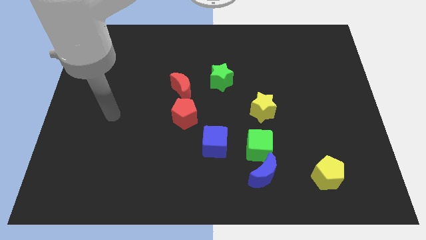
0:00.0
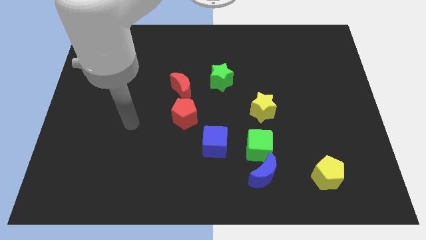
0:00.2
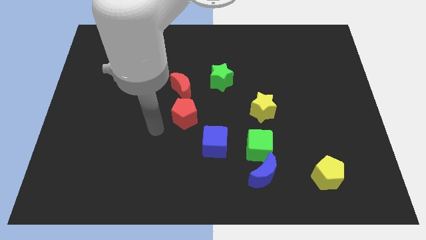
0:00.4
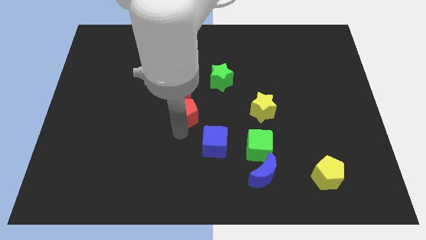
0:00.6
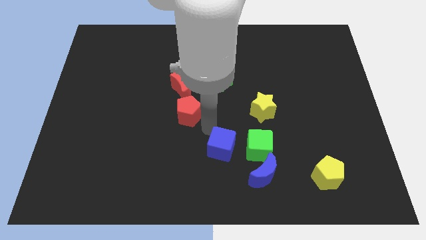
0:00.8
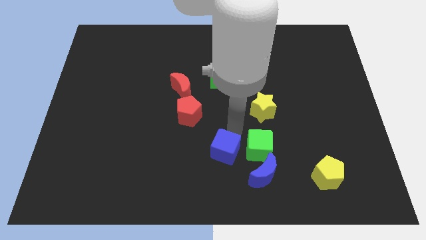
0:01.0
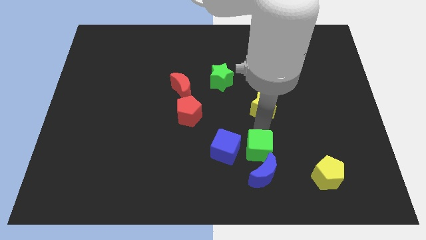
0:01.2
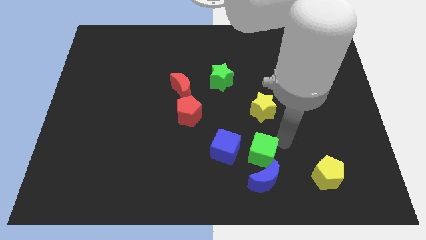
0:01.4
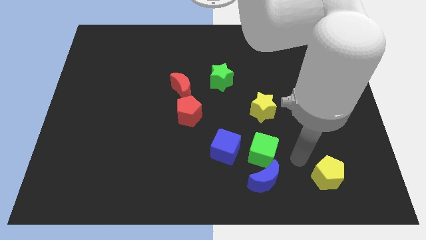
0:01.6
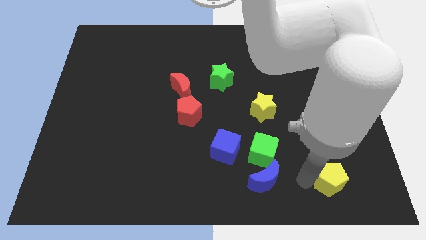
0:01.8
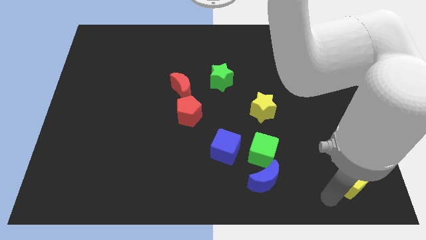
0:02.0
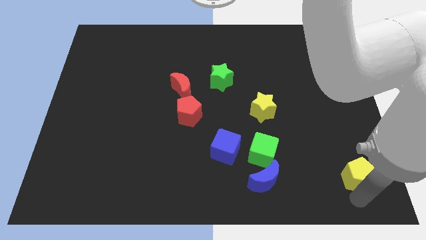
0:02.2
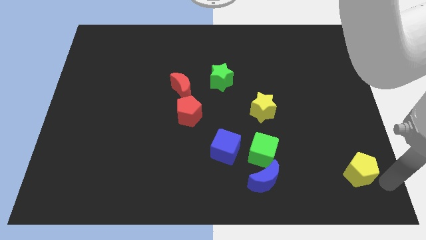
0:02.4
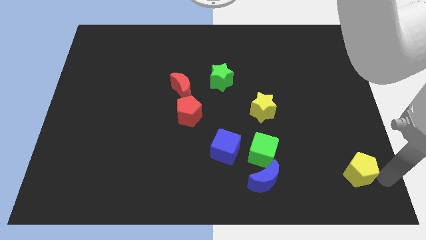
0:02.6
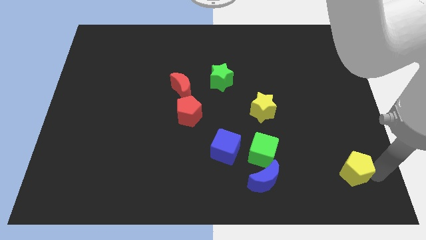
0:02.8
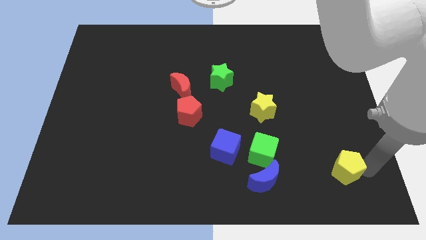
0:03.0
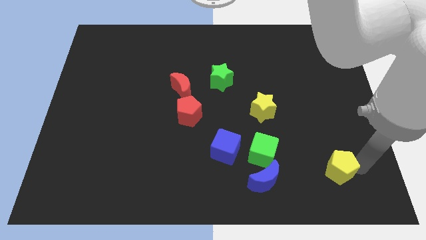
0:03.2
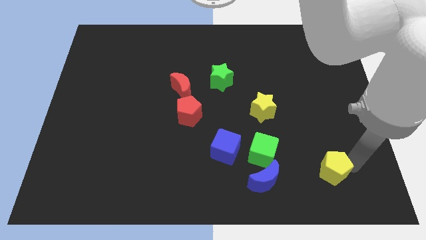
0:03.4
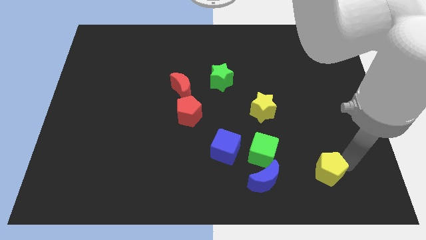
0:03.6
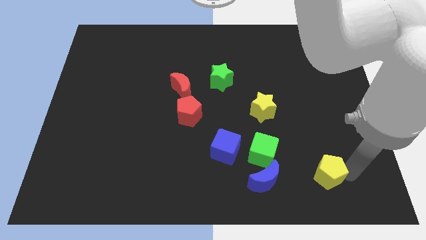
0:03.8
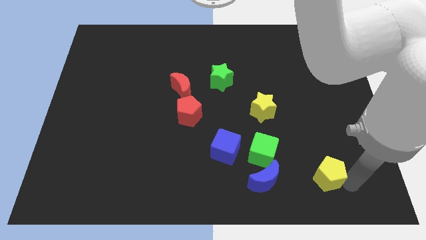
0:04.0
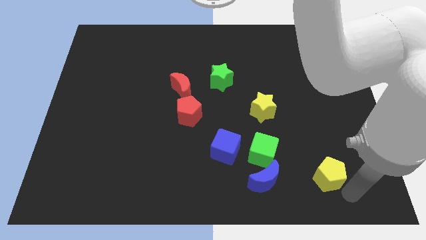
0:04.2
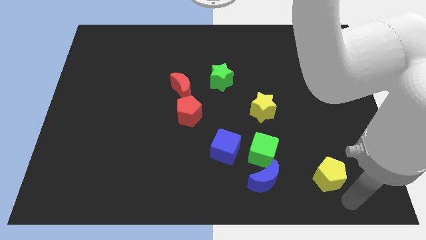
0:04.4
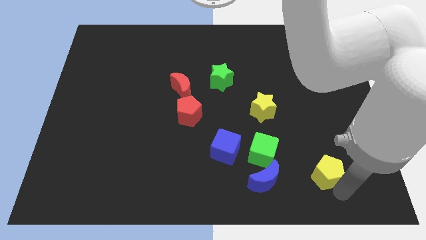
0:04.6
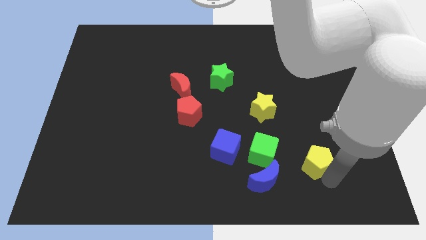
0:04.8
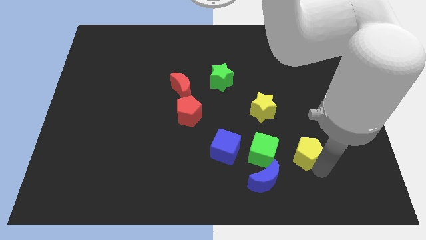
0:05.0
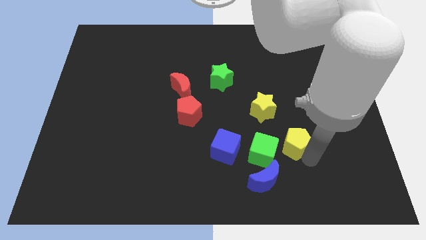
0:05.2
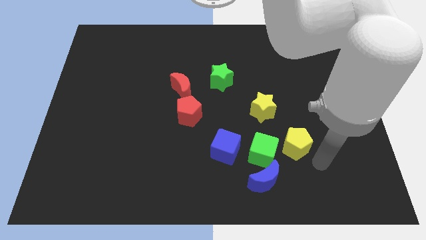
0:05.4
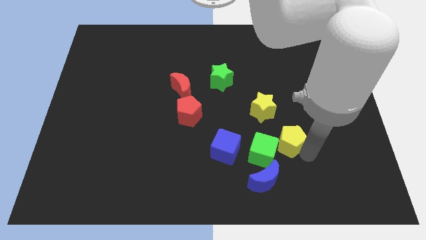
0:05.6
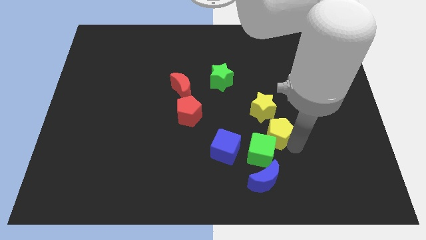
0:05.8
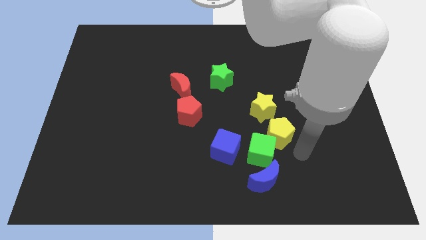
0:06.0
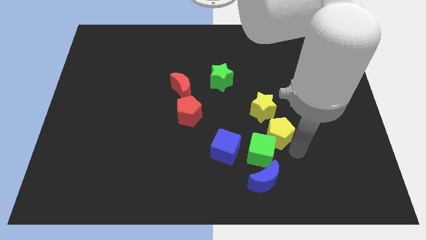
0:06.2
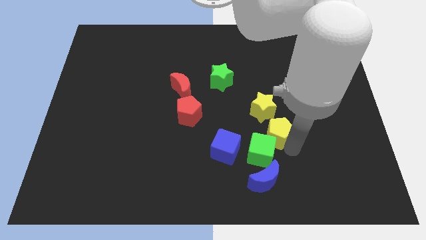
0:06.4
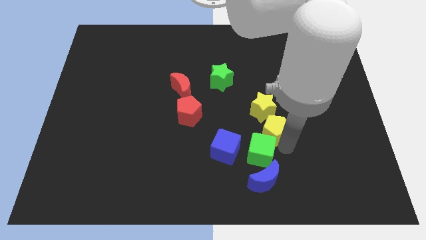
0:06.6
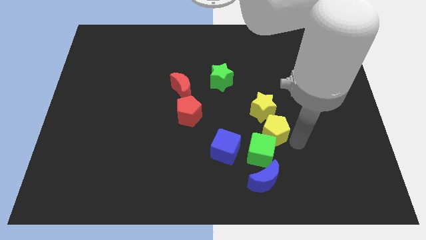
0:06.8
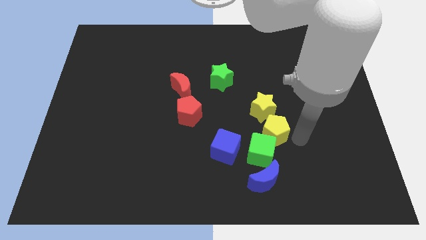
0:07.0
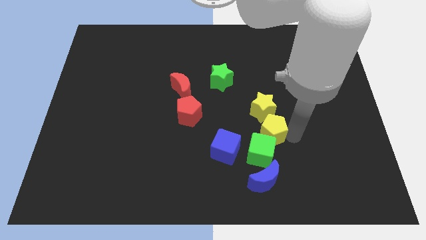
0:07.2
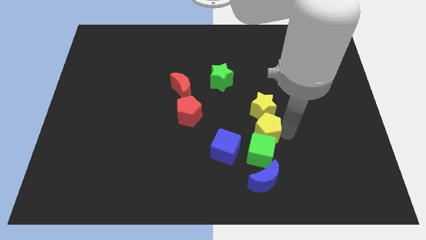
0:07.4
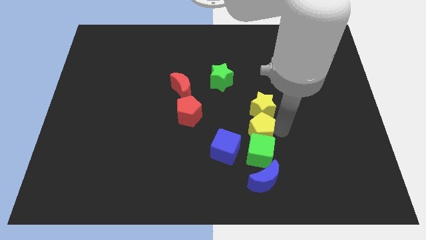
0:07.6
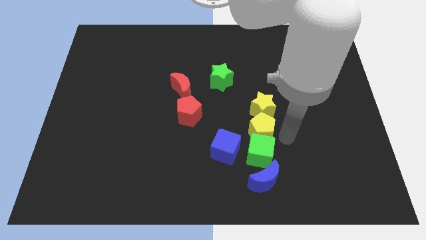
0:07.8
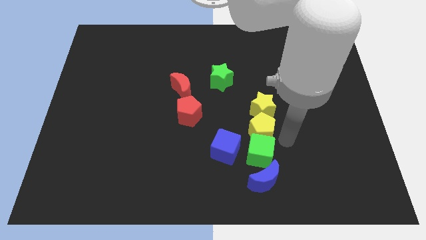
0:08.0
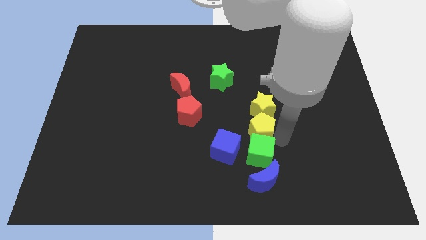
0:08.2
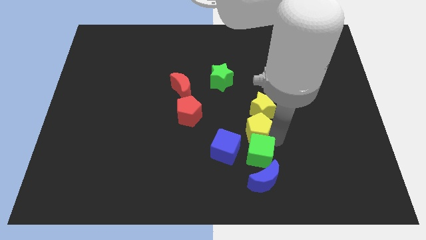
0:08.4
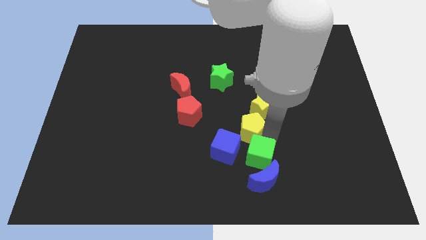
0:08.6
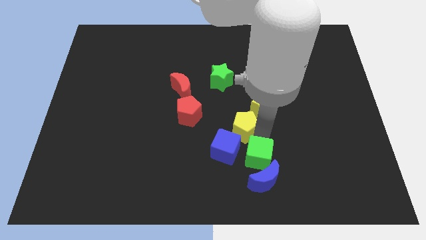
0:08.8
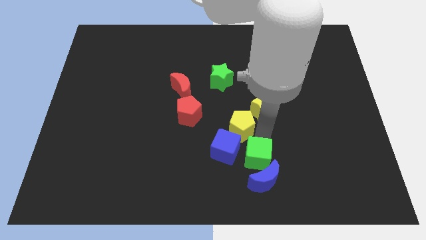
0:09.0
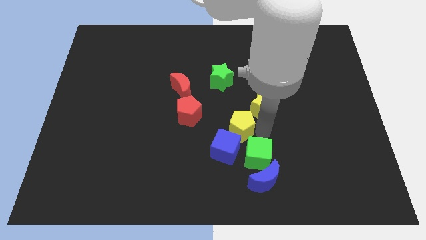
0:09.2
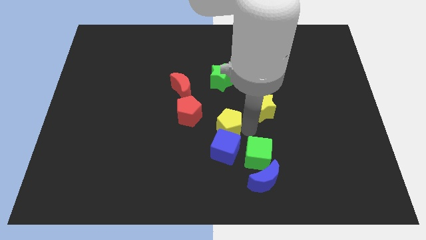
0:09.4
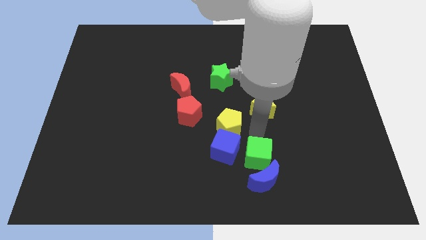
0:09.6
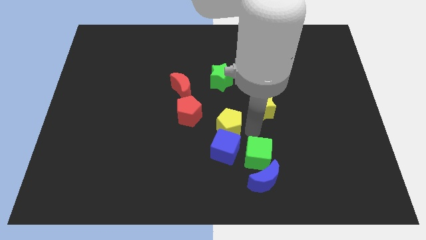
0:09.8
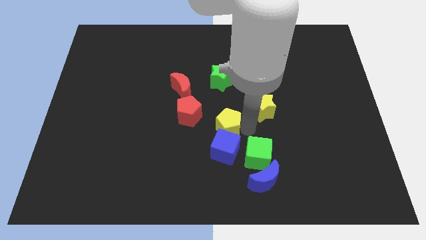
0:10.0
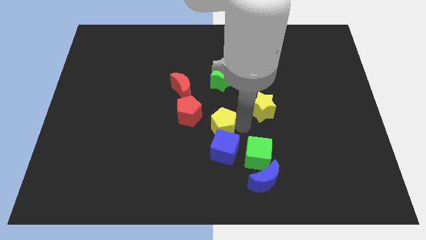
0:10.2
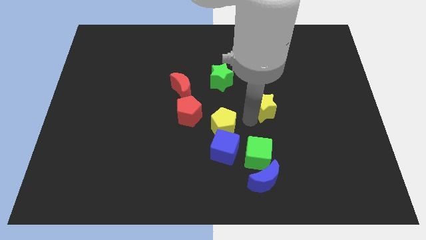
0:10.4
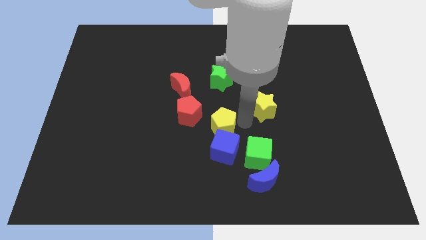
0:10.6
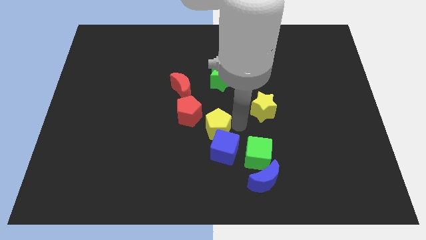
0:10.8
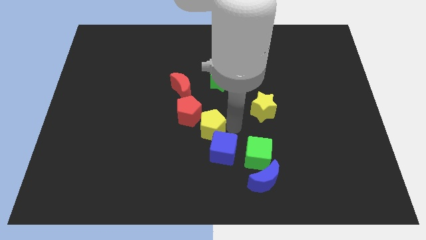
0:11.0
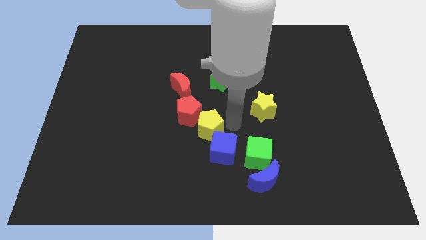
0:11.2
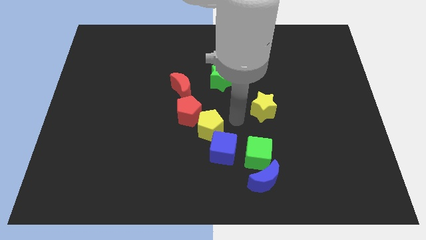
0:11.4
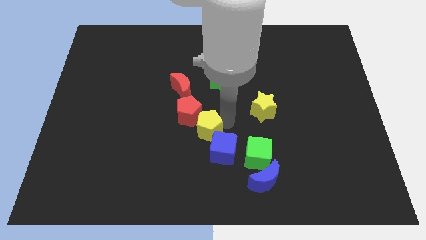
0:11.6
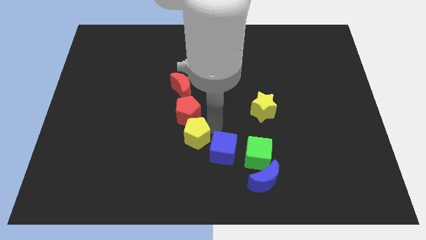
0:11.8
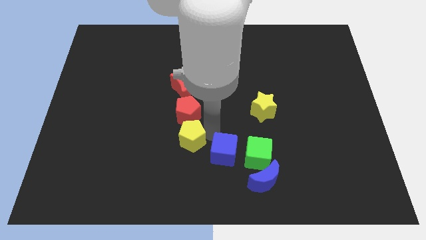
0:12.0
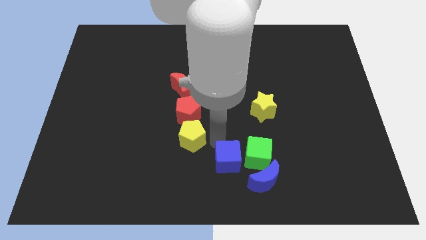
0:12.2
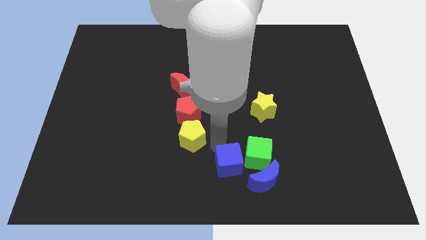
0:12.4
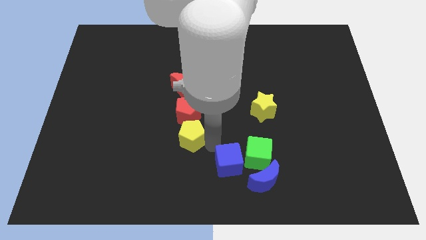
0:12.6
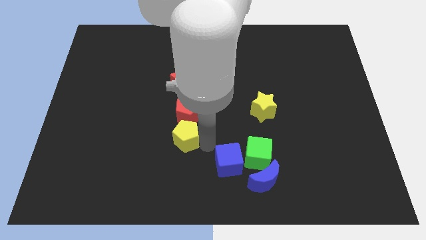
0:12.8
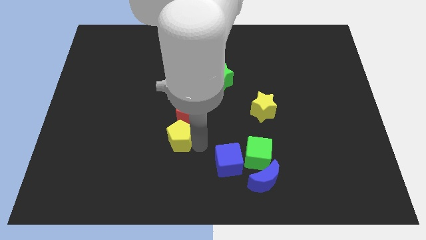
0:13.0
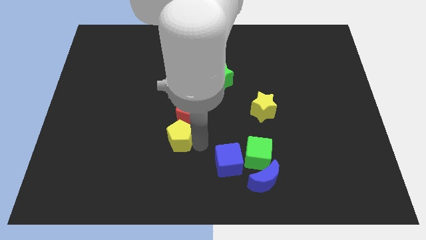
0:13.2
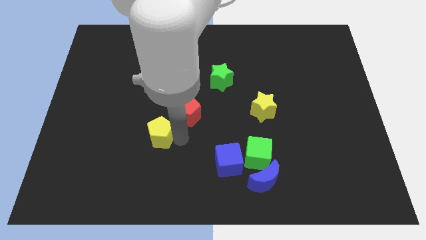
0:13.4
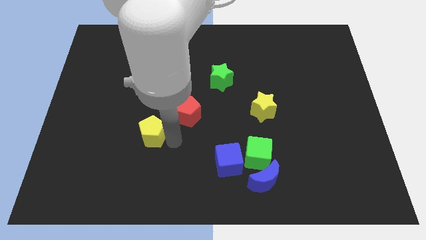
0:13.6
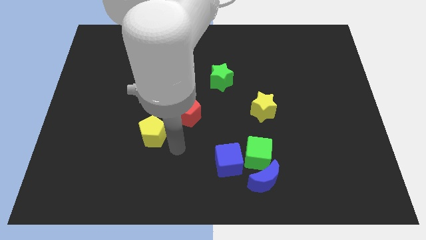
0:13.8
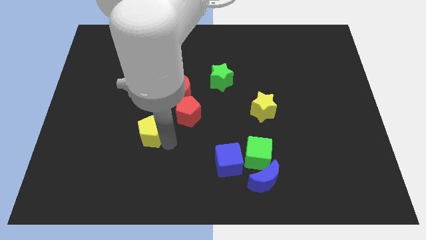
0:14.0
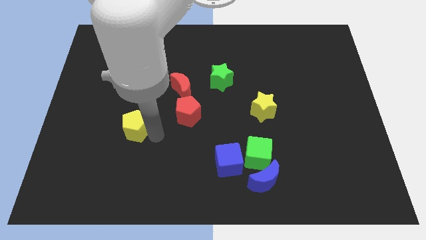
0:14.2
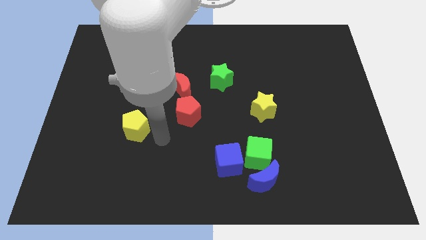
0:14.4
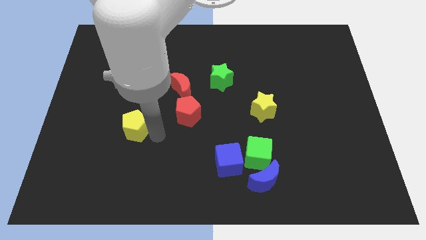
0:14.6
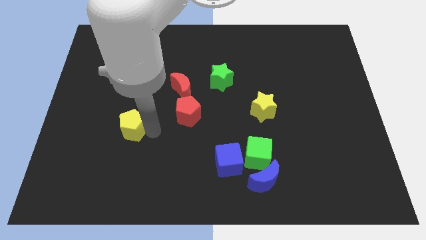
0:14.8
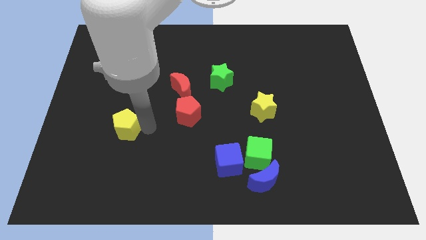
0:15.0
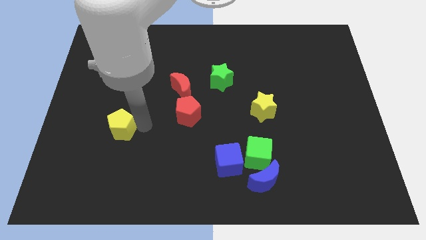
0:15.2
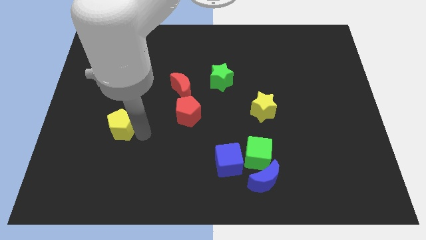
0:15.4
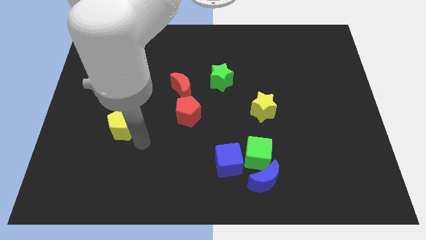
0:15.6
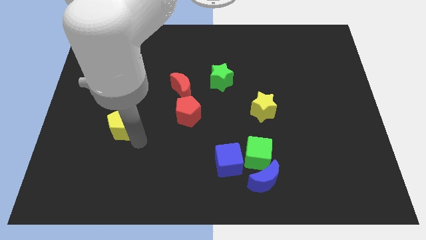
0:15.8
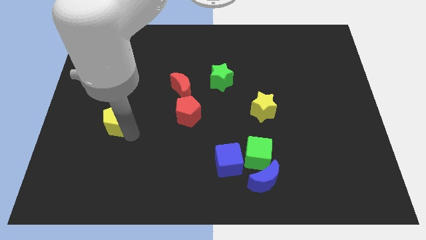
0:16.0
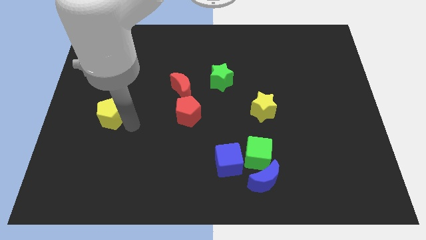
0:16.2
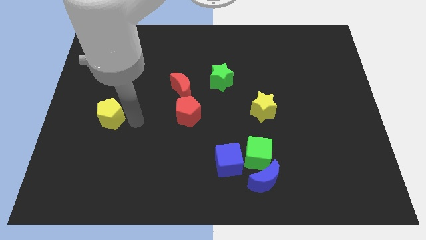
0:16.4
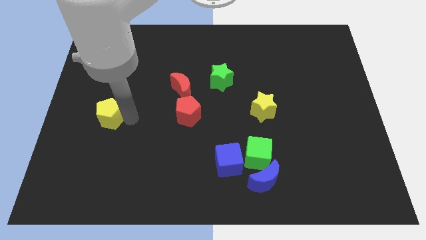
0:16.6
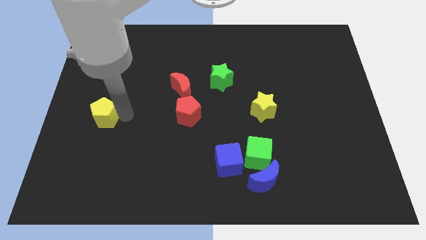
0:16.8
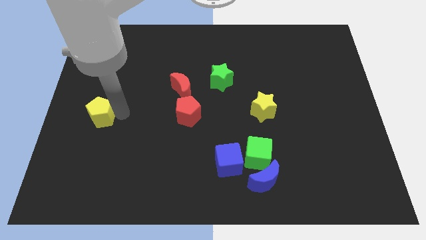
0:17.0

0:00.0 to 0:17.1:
push the yellow pentagon to the left side
